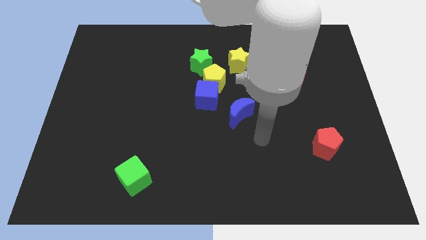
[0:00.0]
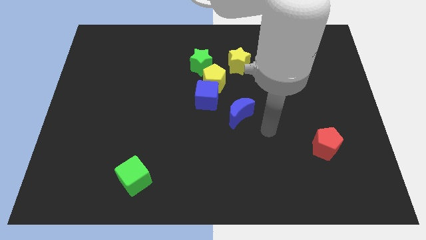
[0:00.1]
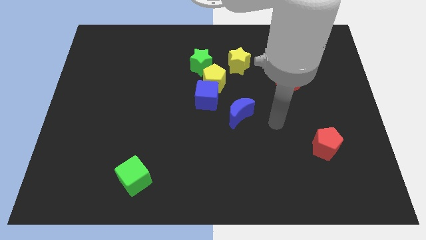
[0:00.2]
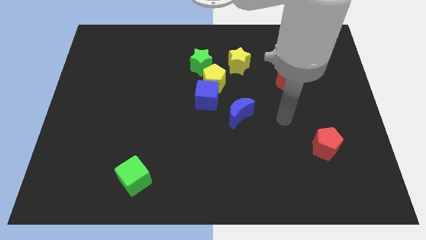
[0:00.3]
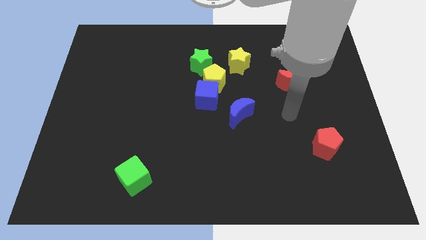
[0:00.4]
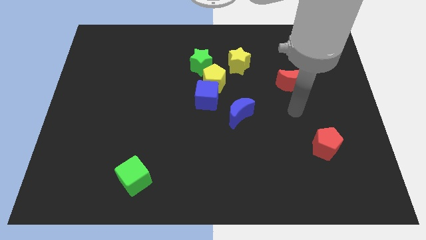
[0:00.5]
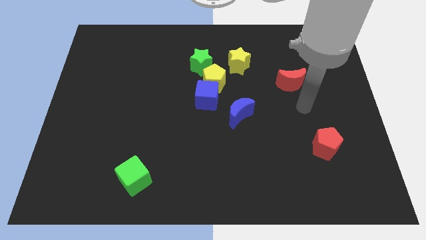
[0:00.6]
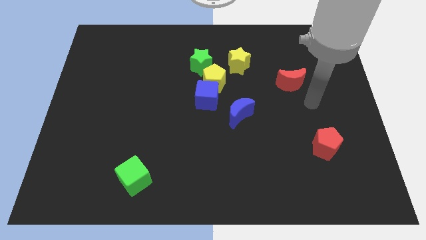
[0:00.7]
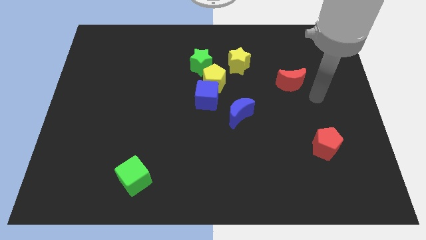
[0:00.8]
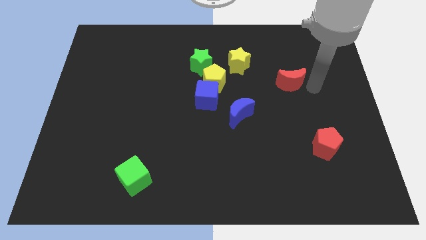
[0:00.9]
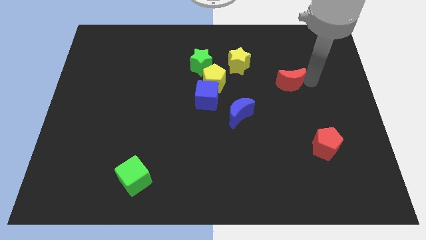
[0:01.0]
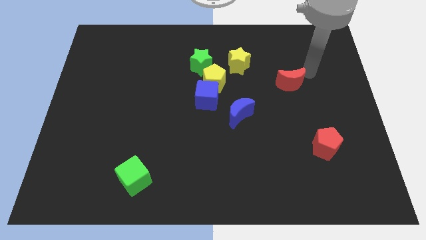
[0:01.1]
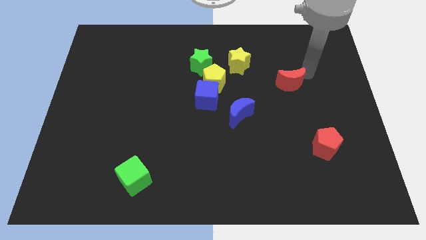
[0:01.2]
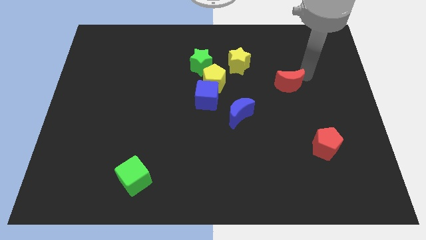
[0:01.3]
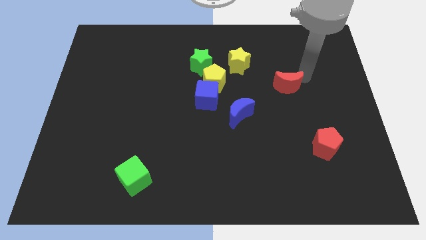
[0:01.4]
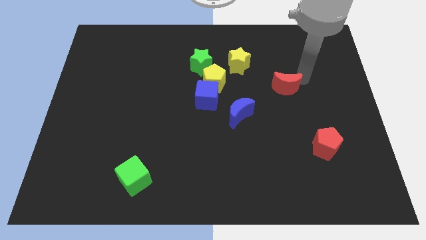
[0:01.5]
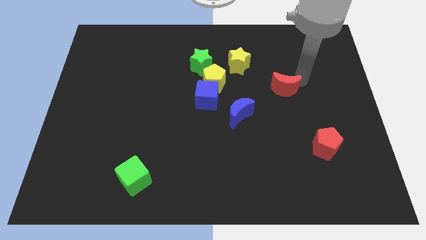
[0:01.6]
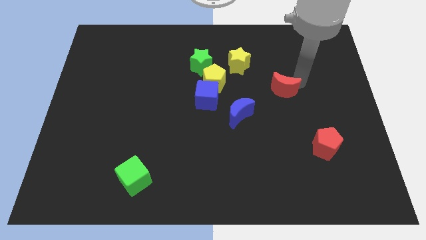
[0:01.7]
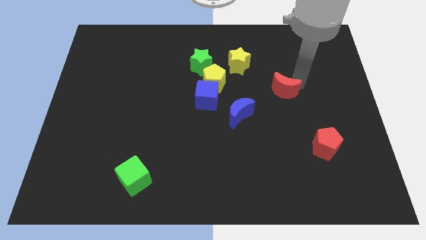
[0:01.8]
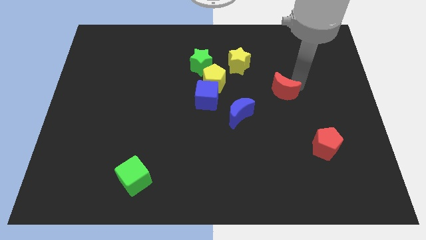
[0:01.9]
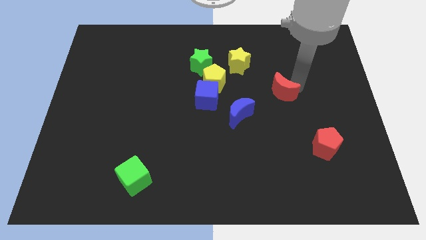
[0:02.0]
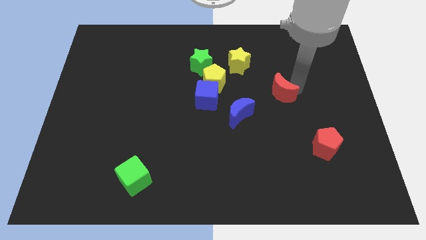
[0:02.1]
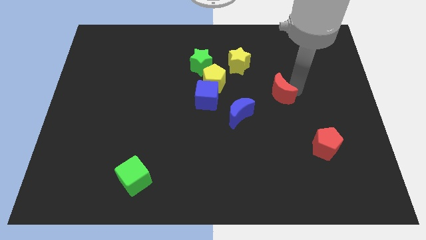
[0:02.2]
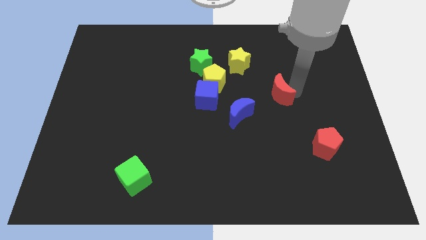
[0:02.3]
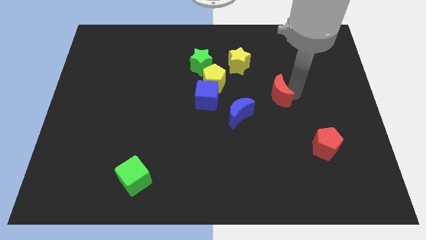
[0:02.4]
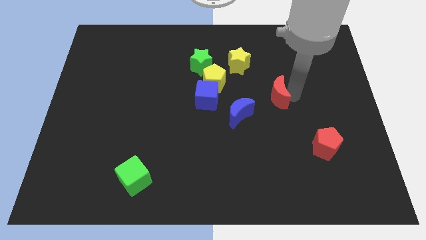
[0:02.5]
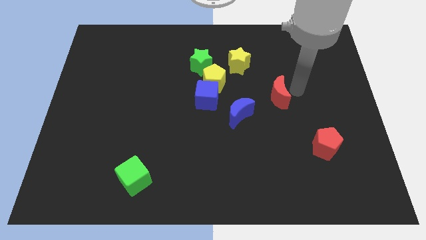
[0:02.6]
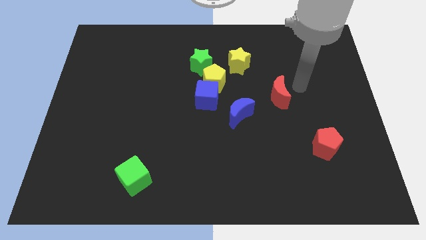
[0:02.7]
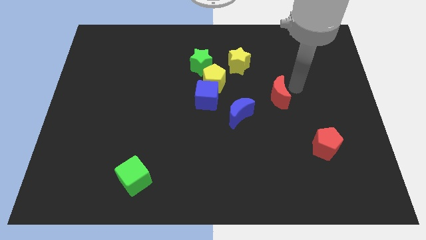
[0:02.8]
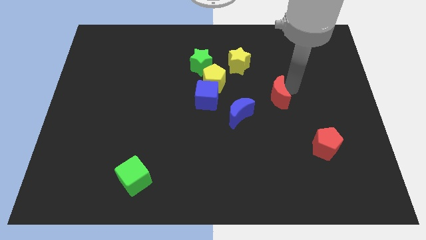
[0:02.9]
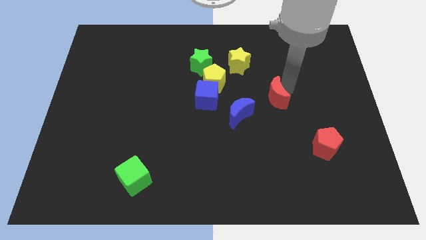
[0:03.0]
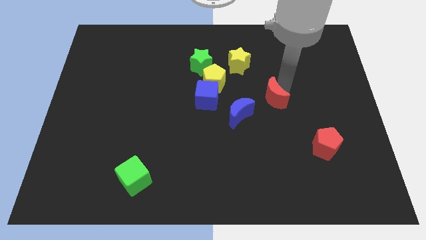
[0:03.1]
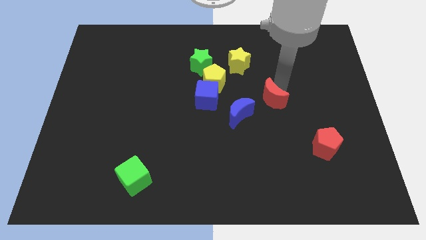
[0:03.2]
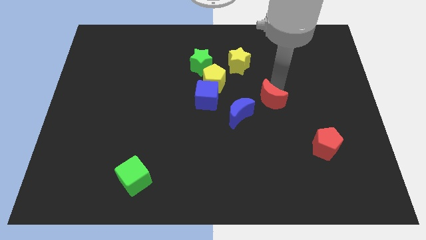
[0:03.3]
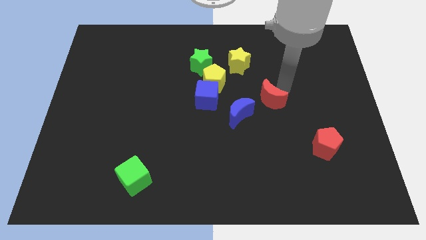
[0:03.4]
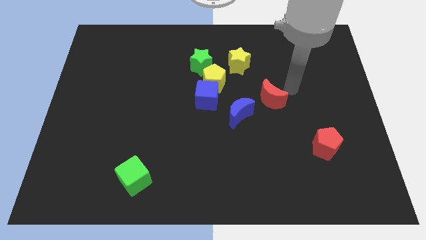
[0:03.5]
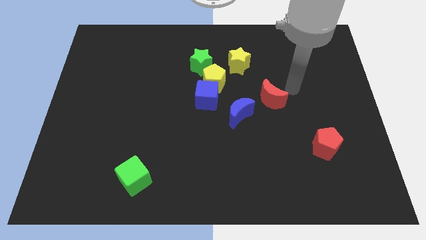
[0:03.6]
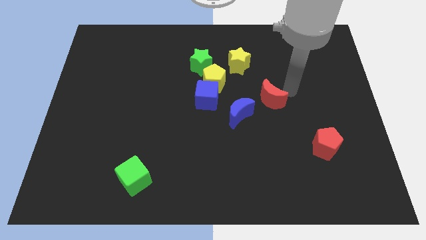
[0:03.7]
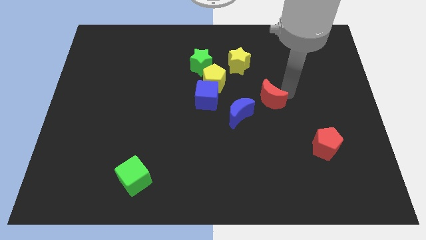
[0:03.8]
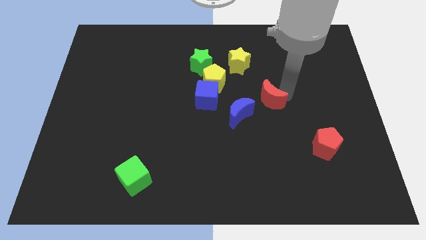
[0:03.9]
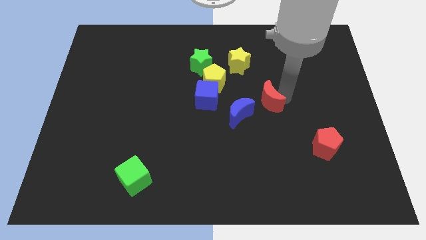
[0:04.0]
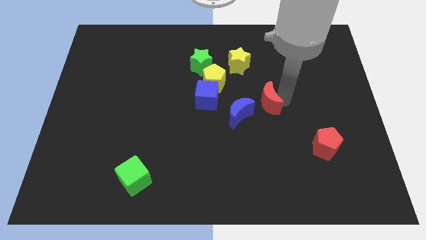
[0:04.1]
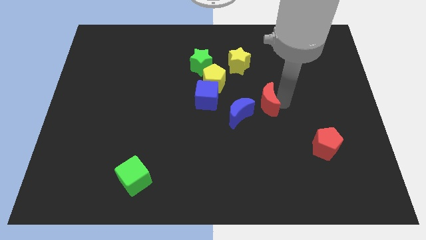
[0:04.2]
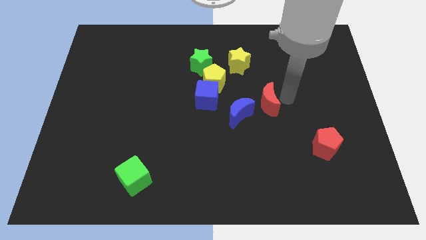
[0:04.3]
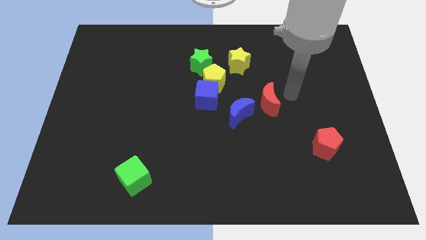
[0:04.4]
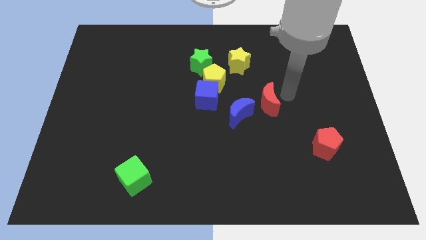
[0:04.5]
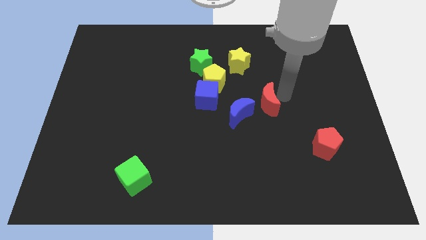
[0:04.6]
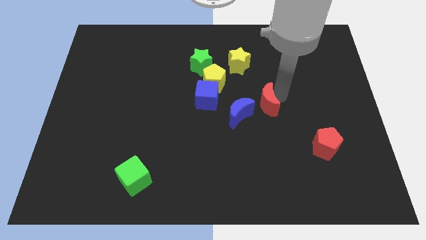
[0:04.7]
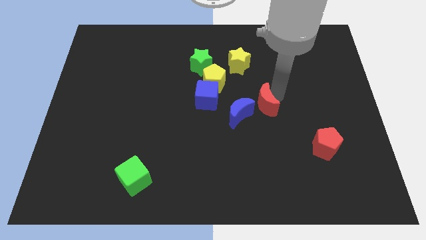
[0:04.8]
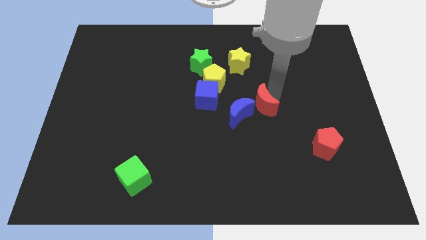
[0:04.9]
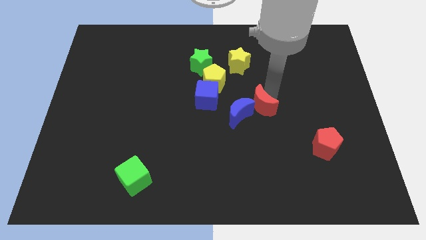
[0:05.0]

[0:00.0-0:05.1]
push the red moon towards the blue moon
